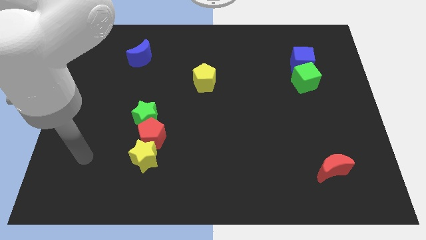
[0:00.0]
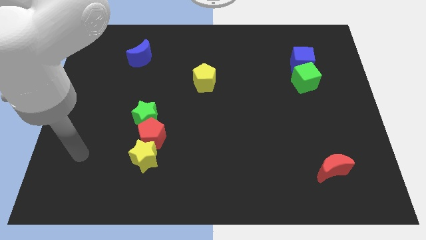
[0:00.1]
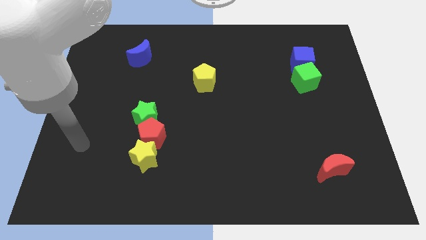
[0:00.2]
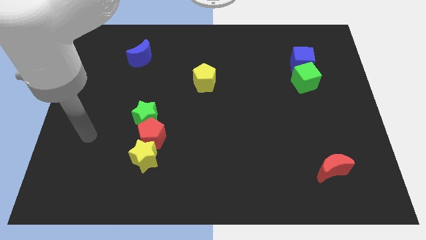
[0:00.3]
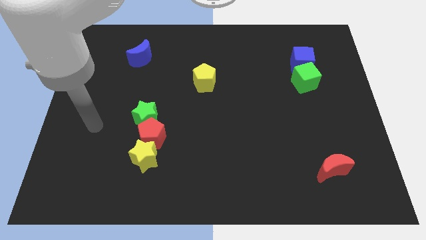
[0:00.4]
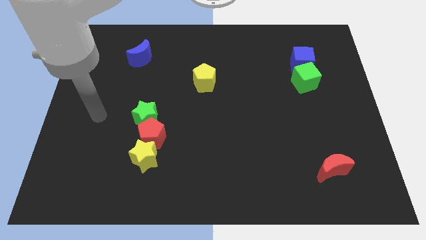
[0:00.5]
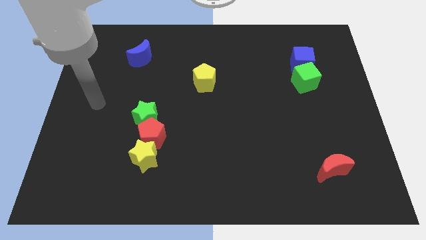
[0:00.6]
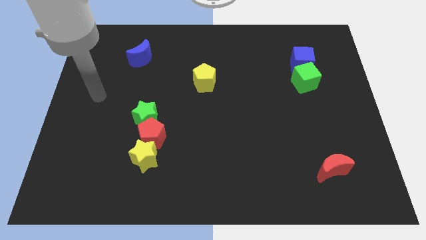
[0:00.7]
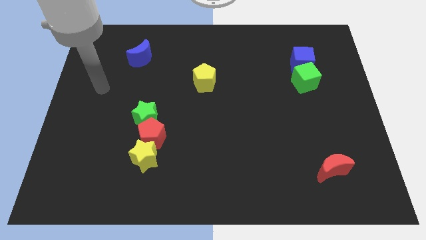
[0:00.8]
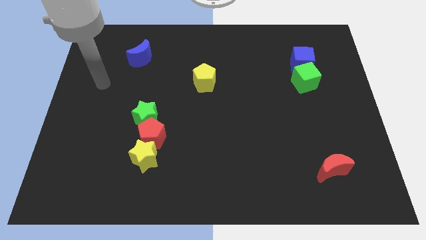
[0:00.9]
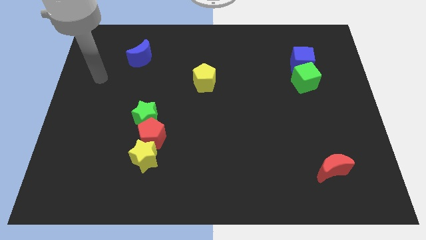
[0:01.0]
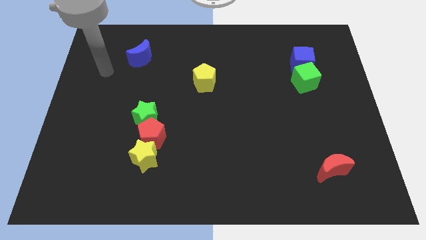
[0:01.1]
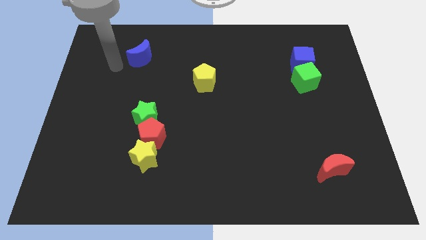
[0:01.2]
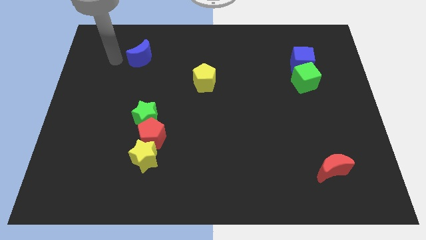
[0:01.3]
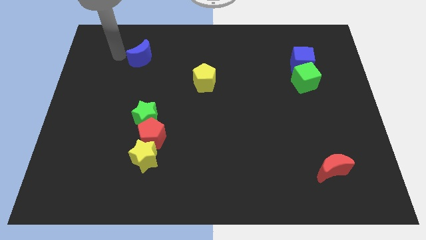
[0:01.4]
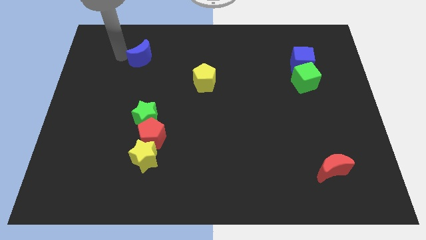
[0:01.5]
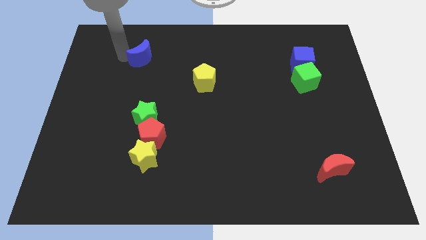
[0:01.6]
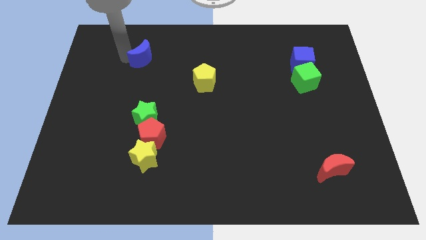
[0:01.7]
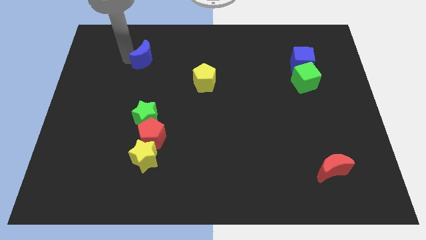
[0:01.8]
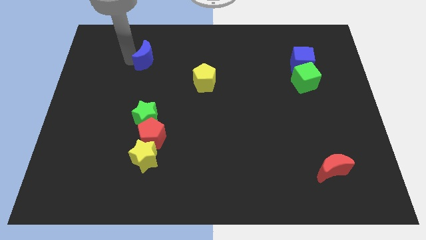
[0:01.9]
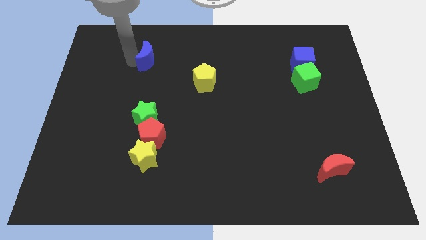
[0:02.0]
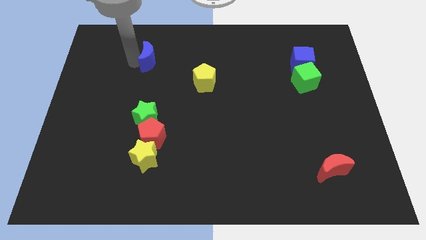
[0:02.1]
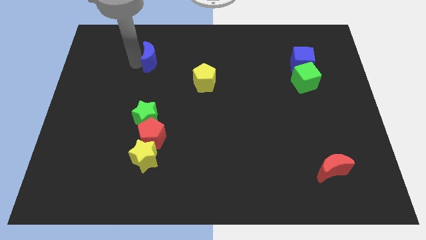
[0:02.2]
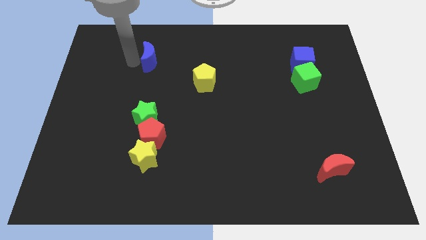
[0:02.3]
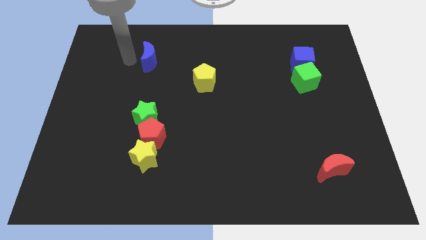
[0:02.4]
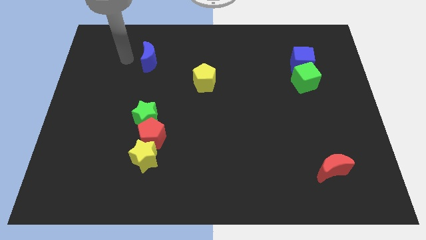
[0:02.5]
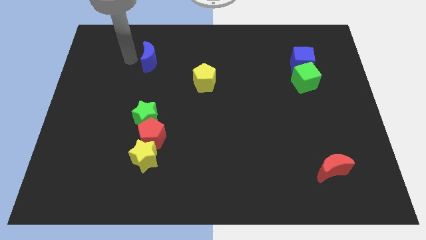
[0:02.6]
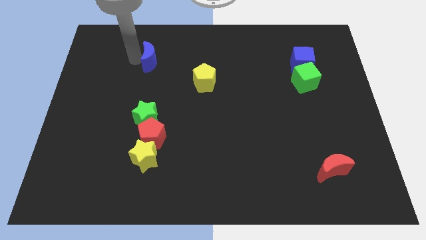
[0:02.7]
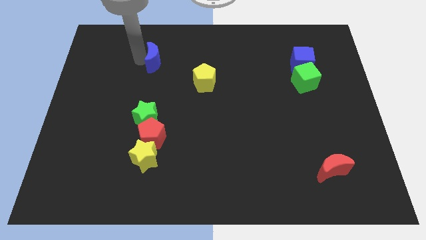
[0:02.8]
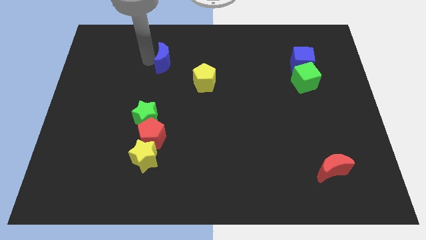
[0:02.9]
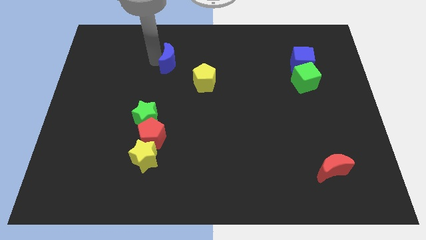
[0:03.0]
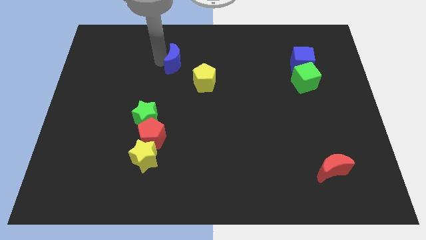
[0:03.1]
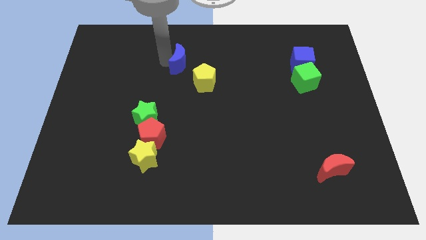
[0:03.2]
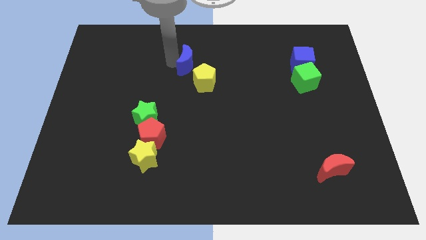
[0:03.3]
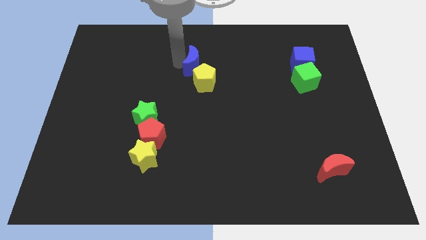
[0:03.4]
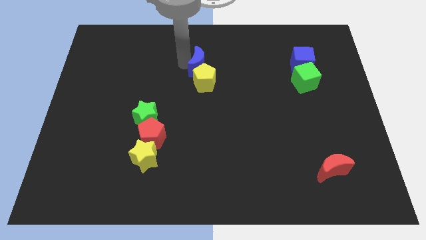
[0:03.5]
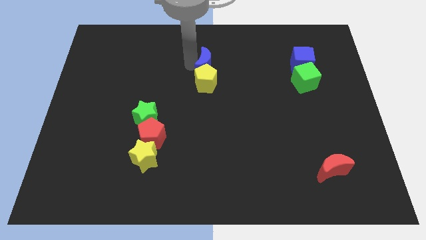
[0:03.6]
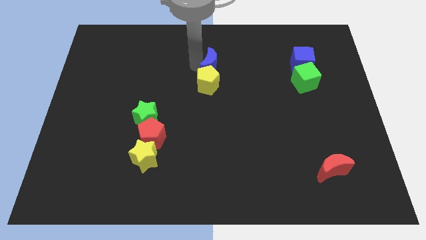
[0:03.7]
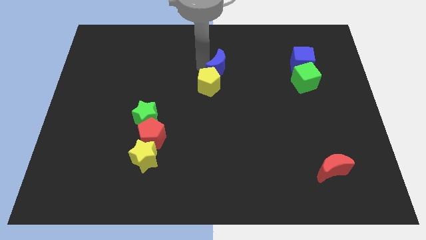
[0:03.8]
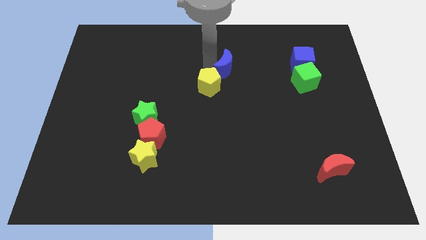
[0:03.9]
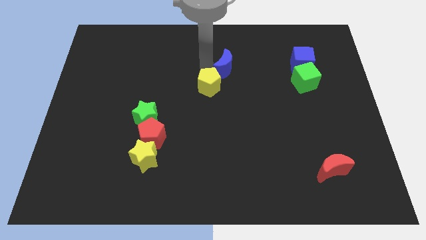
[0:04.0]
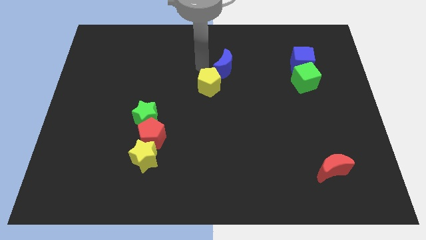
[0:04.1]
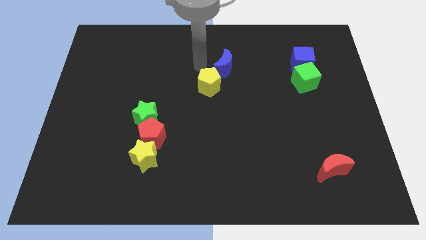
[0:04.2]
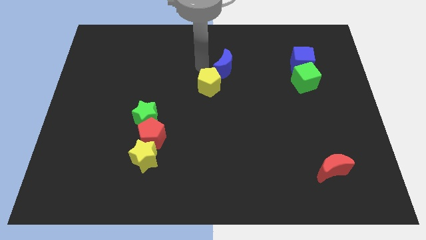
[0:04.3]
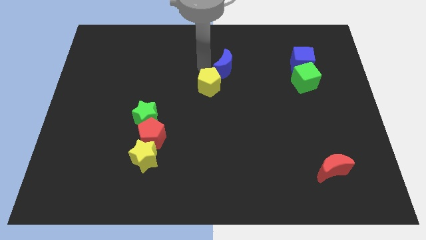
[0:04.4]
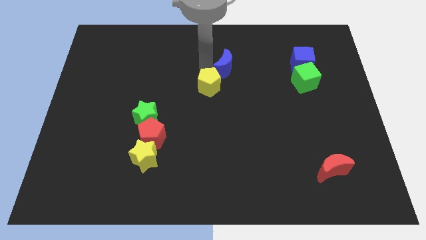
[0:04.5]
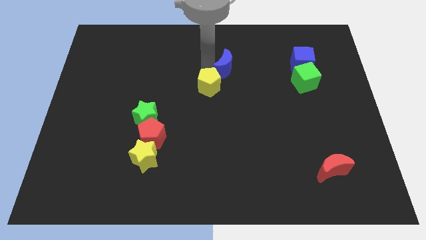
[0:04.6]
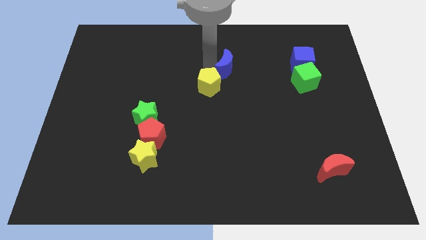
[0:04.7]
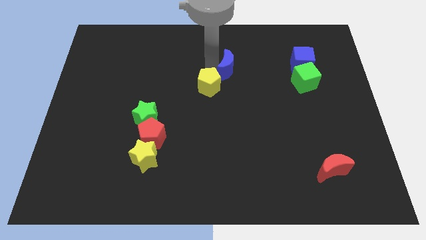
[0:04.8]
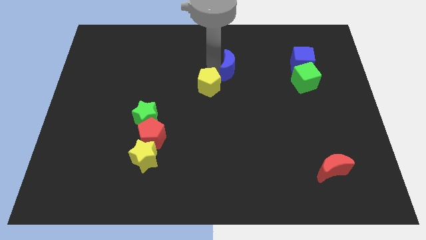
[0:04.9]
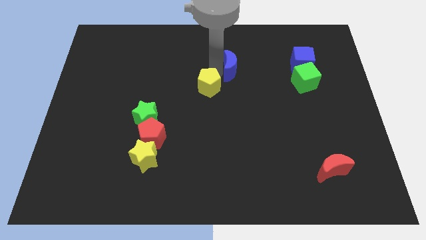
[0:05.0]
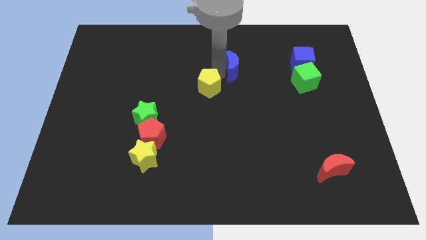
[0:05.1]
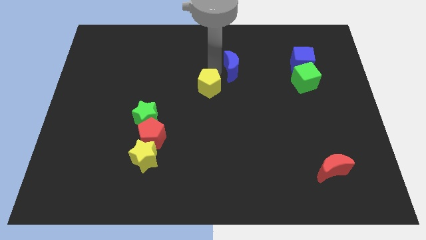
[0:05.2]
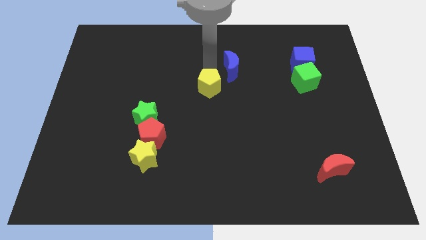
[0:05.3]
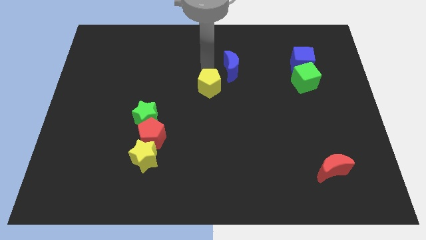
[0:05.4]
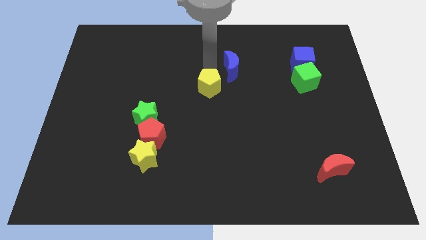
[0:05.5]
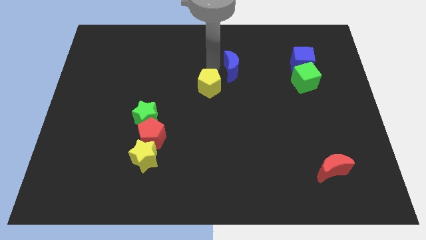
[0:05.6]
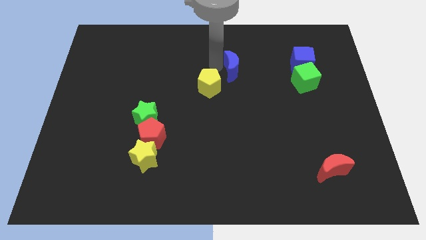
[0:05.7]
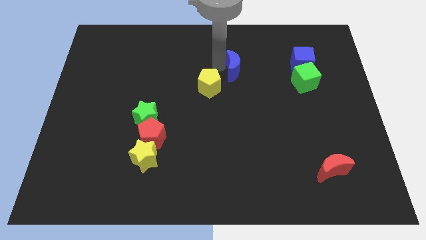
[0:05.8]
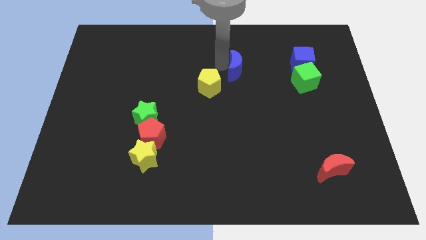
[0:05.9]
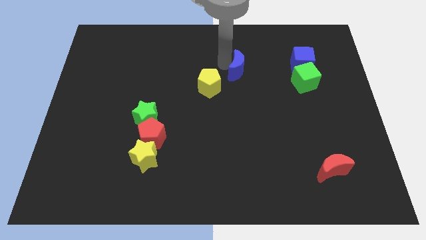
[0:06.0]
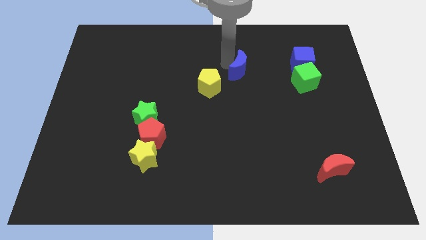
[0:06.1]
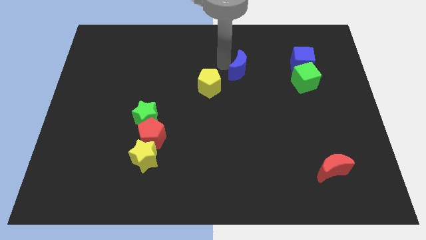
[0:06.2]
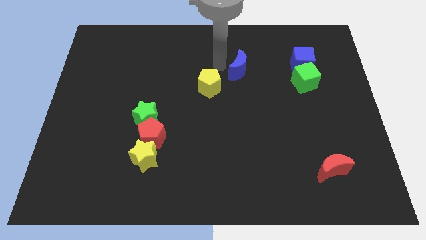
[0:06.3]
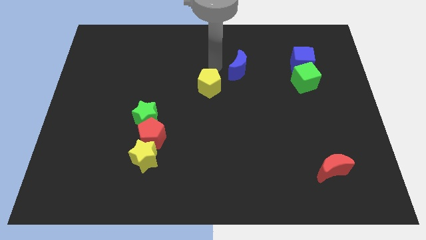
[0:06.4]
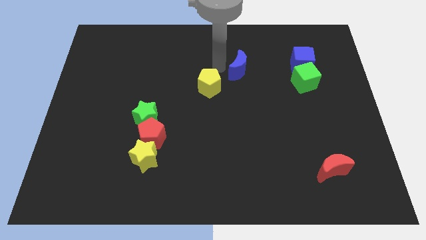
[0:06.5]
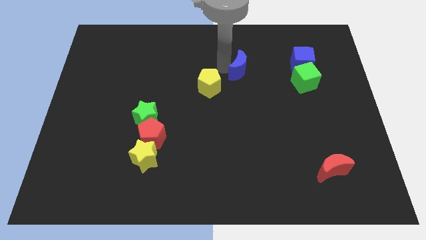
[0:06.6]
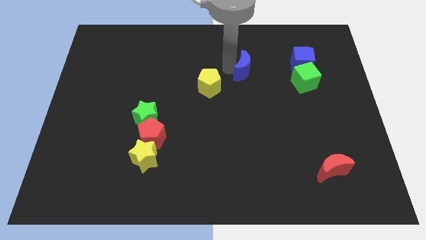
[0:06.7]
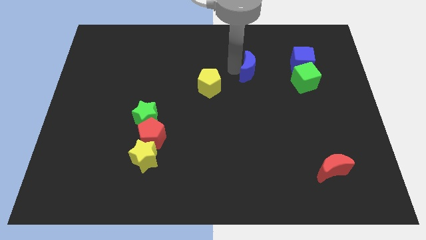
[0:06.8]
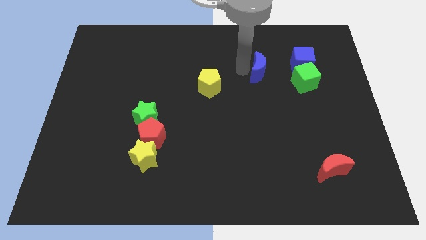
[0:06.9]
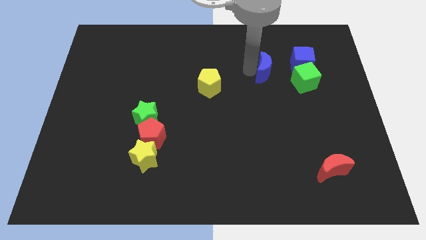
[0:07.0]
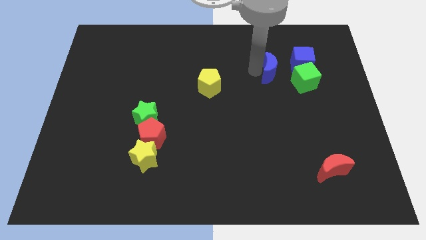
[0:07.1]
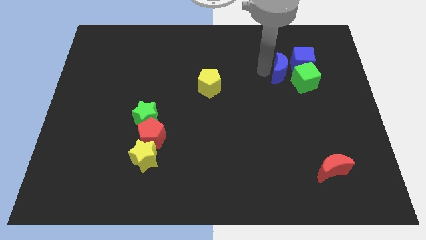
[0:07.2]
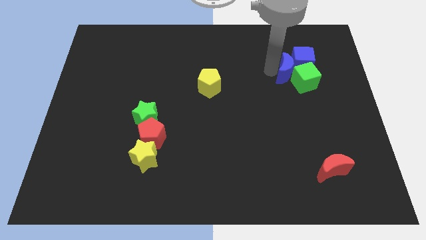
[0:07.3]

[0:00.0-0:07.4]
move the blue moon close to the green cube
